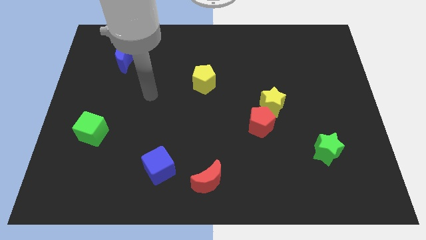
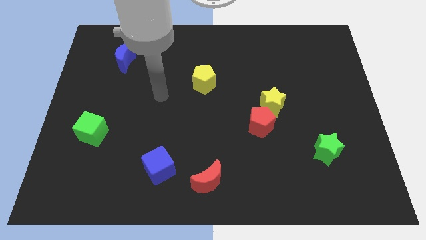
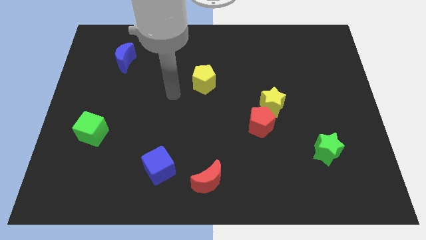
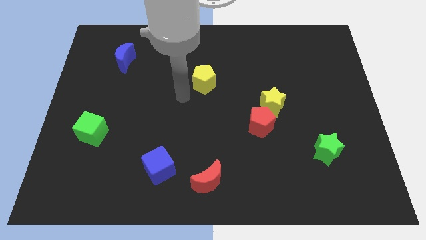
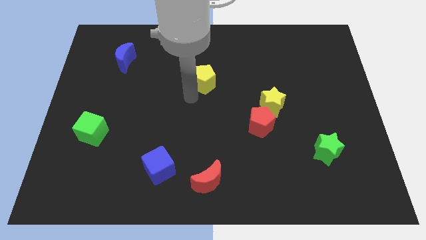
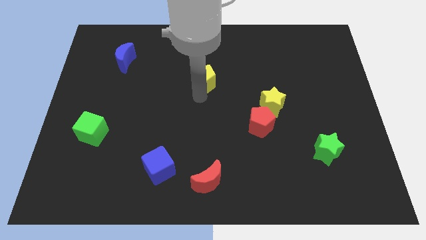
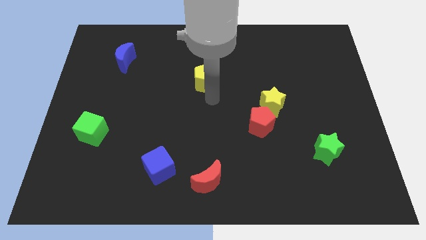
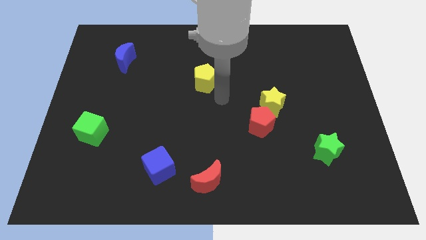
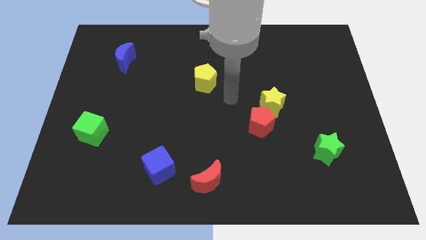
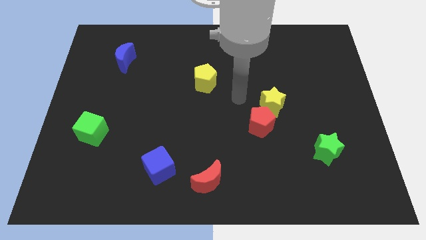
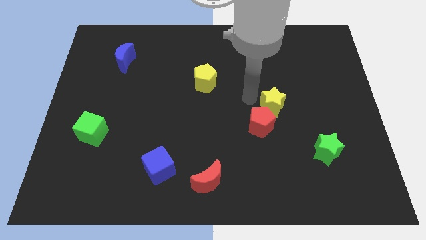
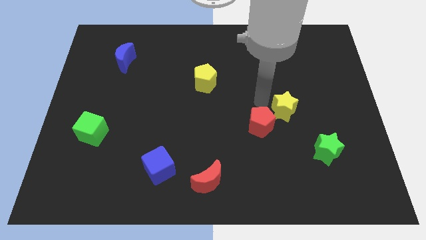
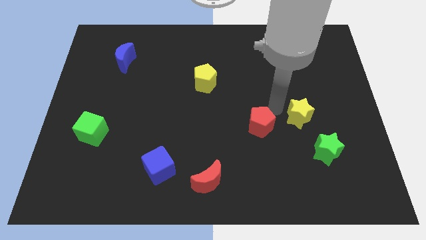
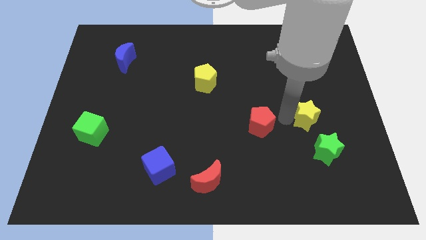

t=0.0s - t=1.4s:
pull the red pentagon apart from the yellow star

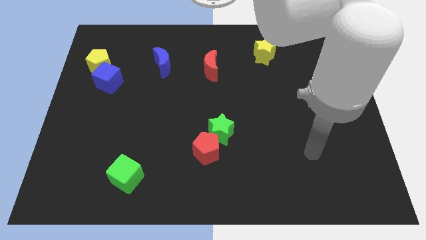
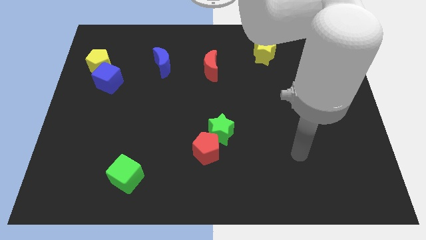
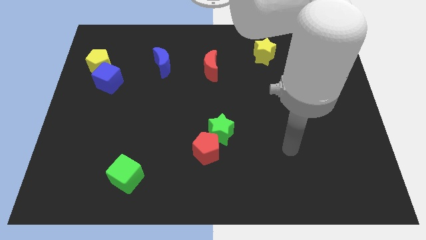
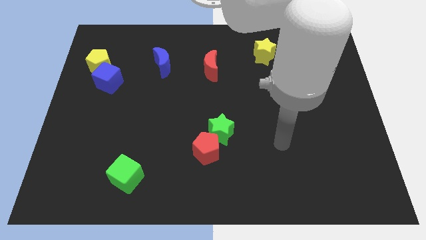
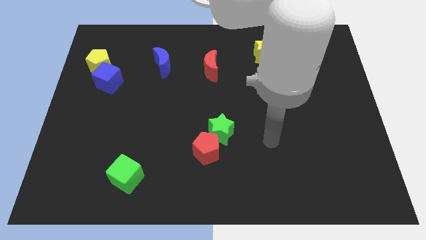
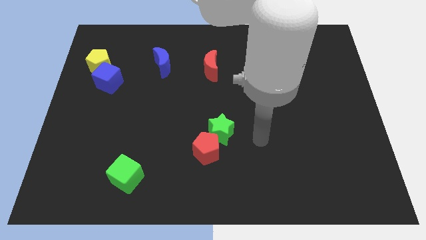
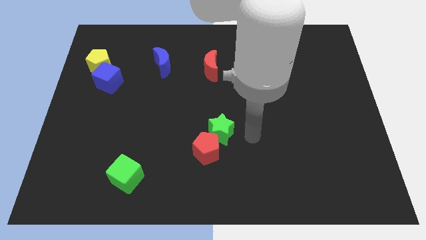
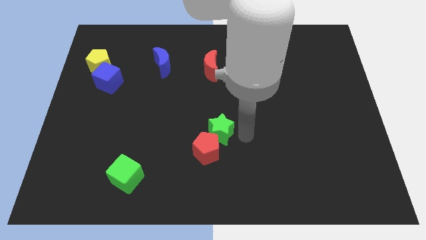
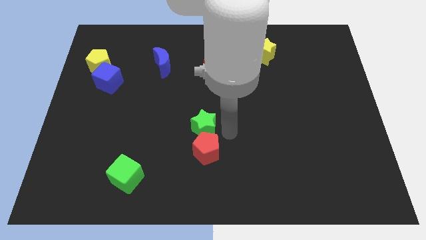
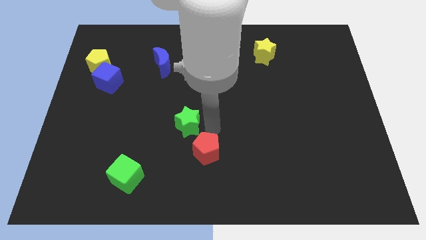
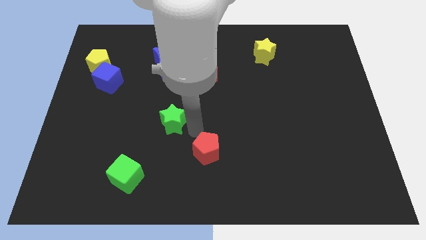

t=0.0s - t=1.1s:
pull the red pentagon apart from the green star

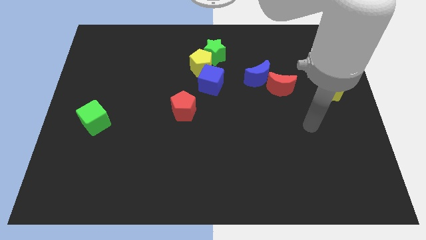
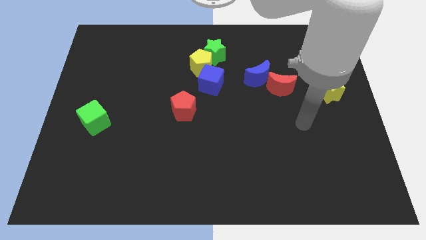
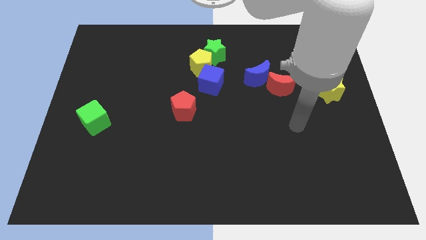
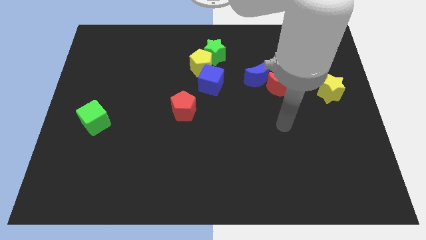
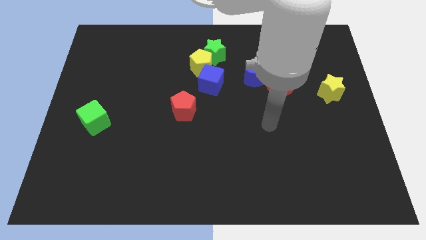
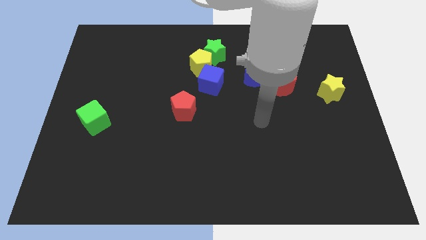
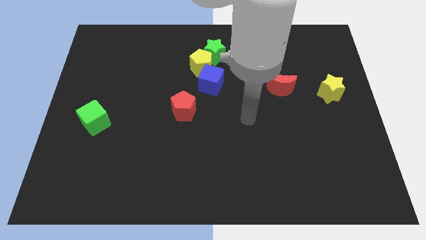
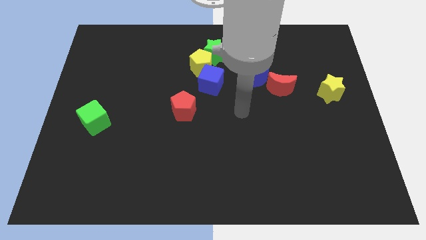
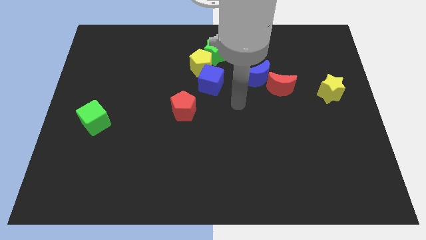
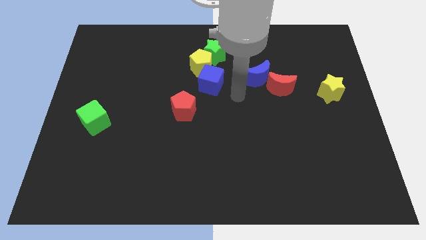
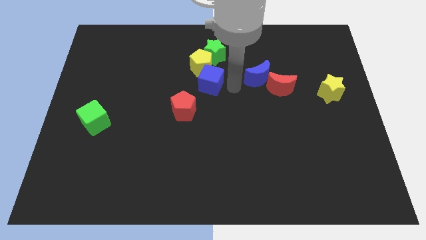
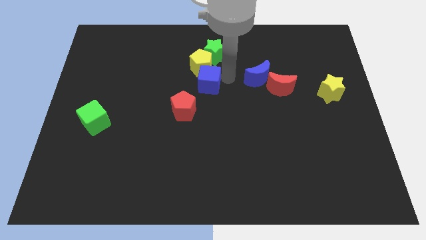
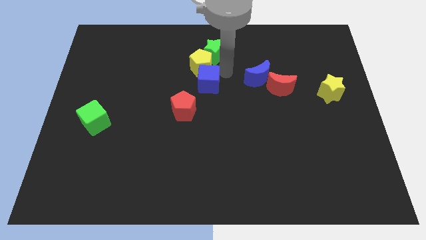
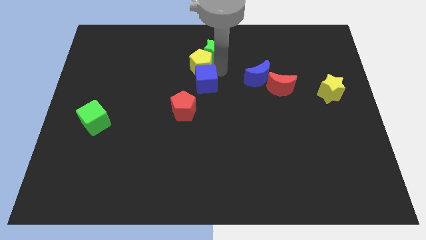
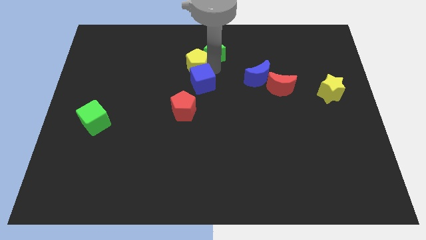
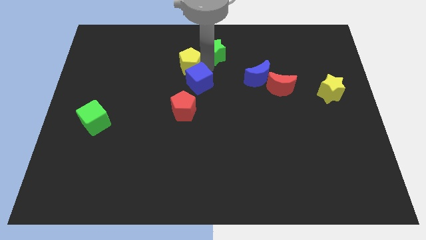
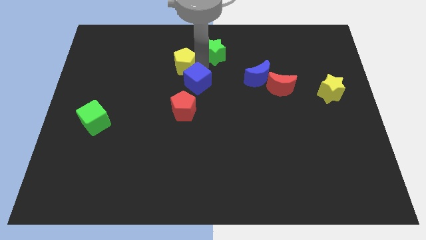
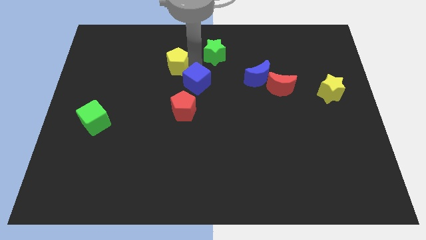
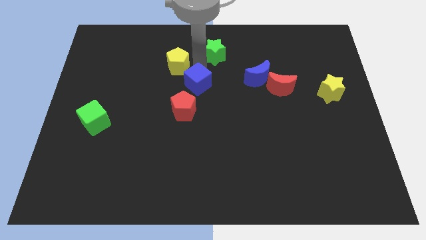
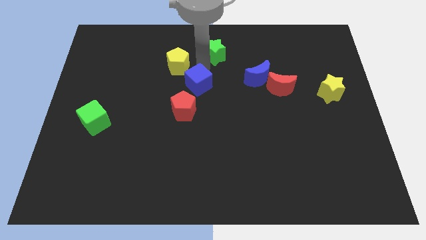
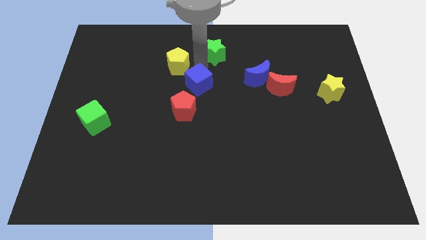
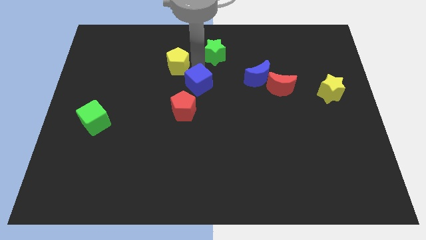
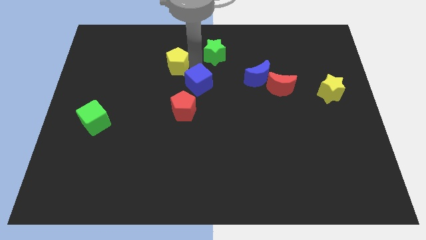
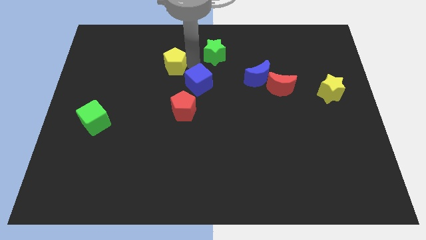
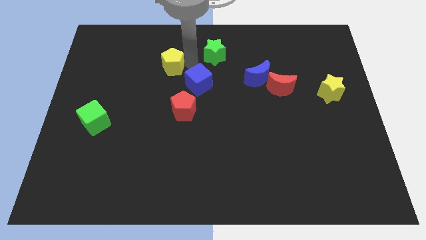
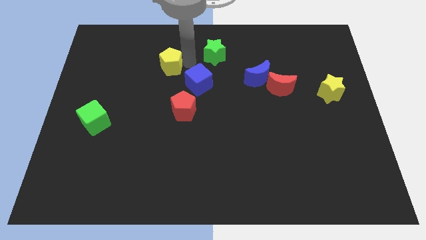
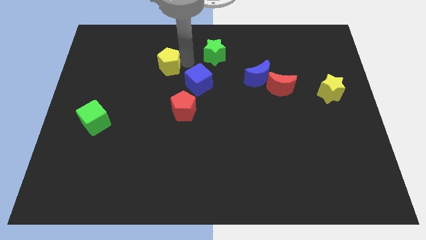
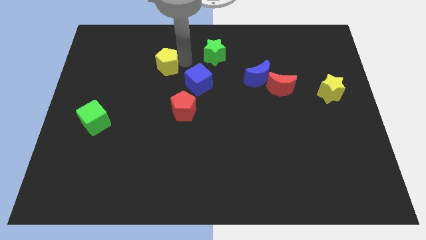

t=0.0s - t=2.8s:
separate the yellow pentagon from the green star and blue cube

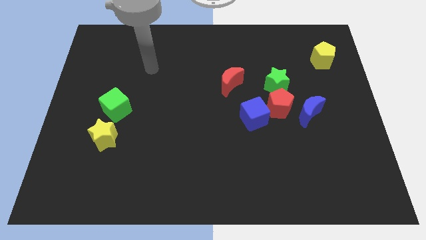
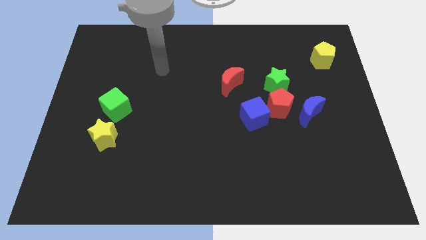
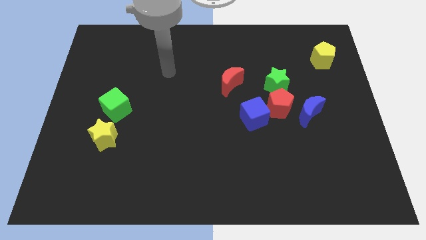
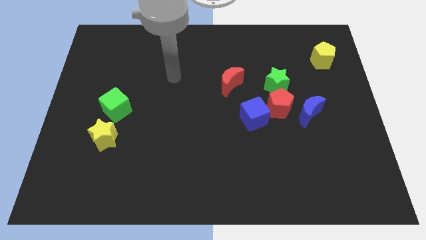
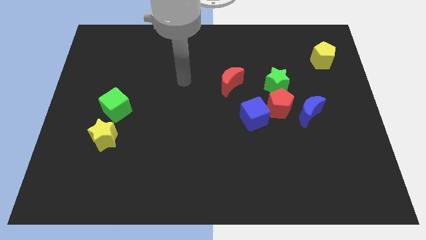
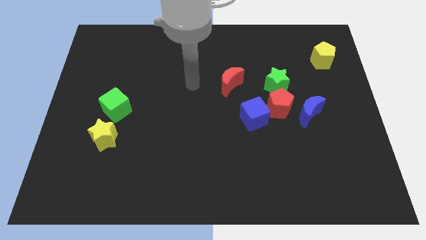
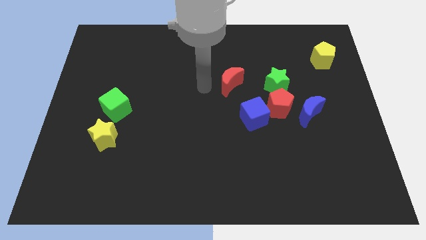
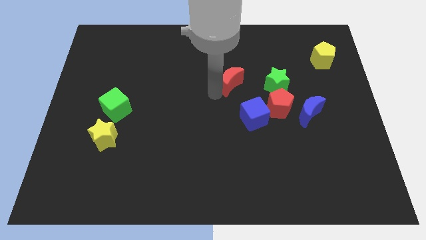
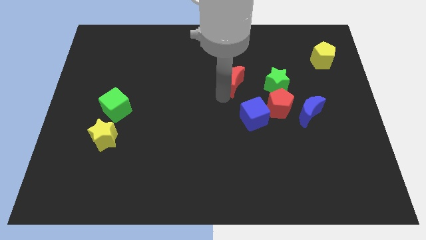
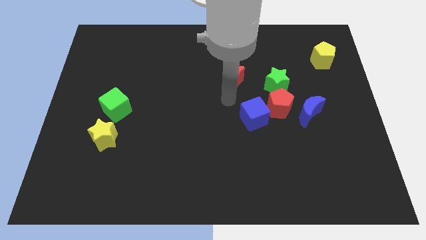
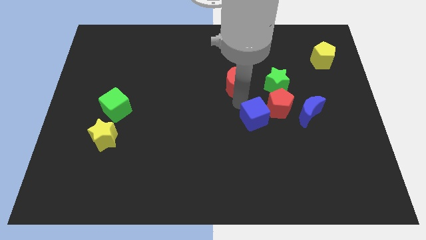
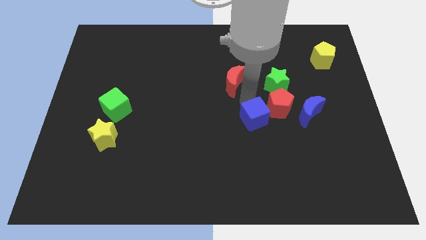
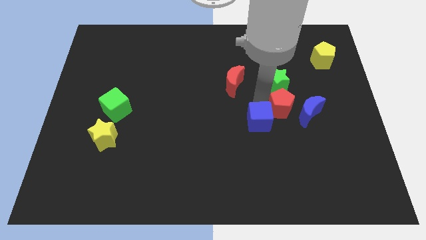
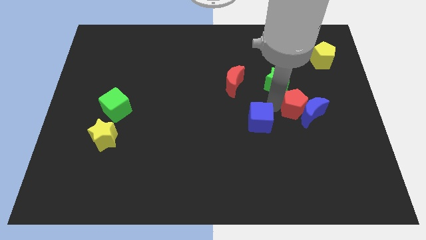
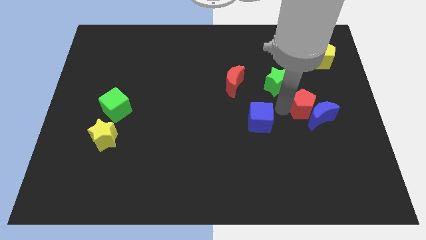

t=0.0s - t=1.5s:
pull the blue cube apart from the red pentagon

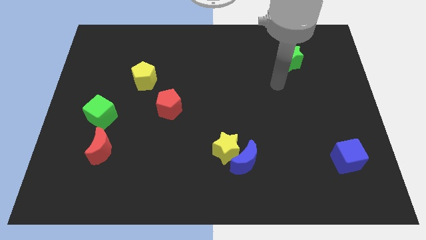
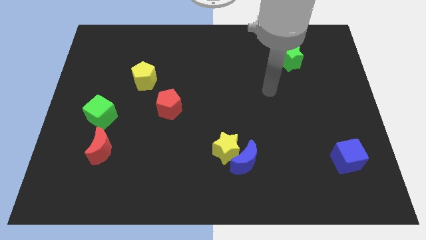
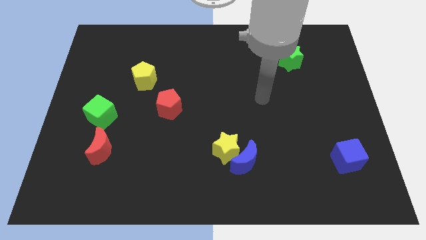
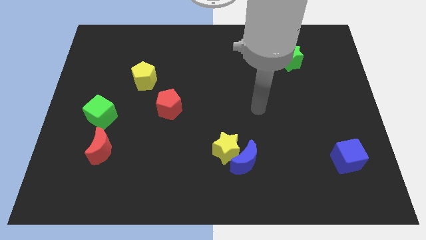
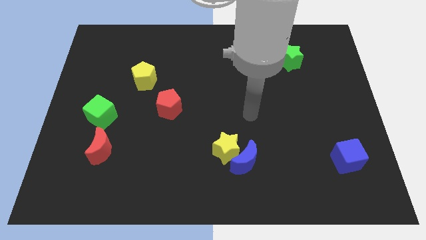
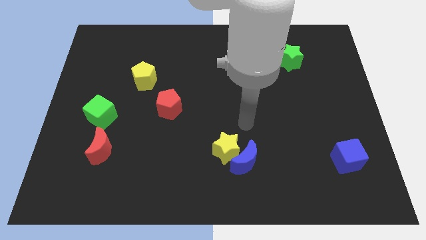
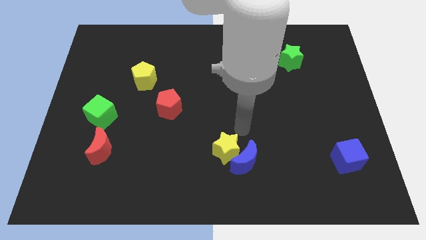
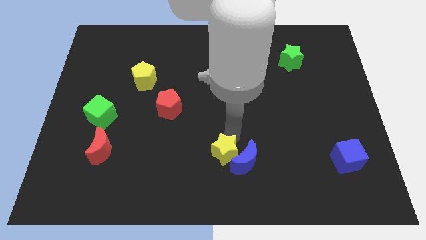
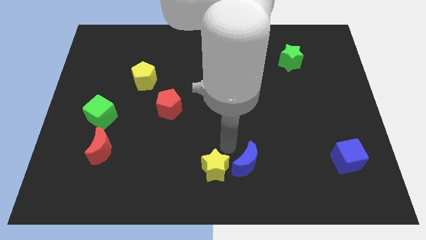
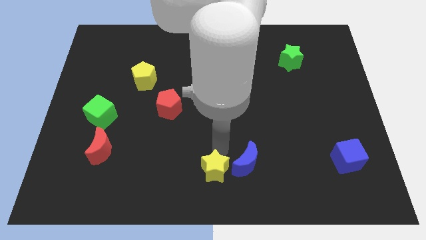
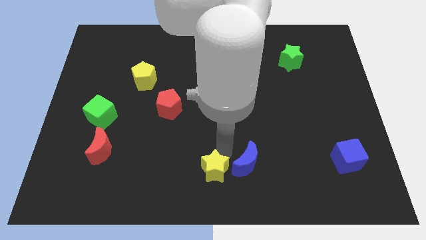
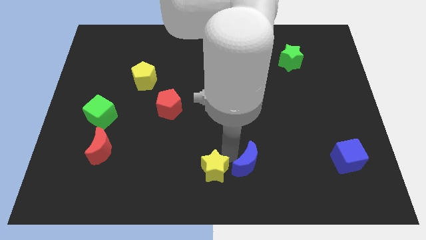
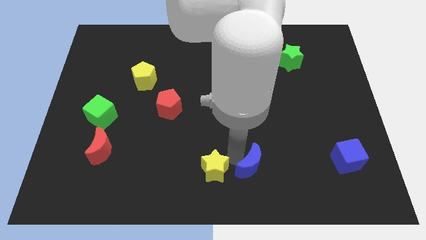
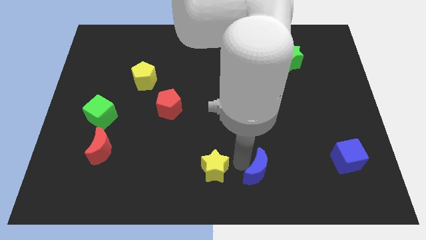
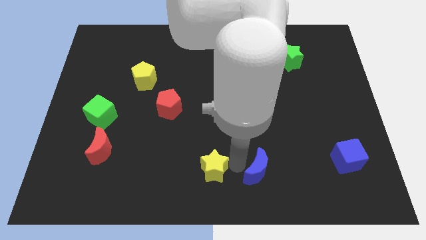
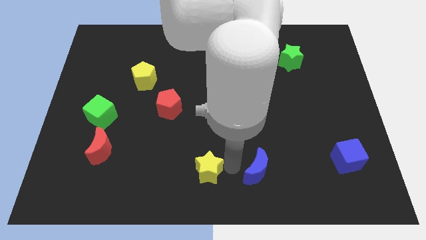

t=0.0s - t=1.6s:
separate the blue moon from the yellow star

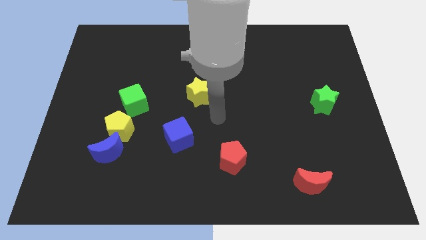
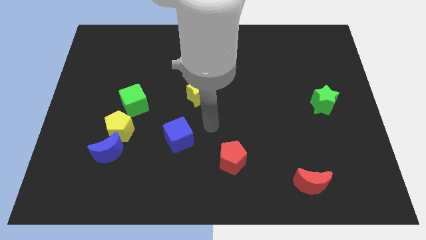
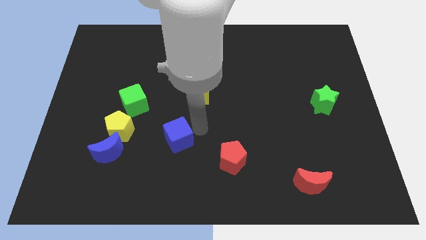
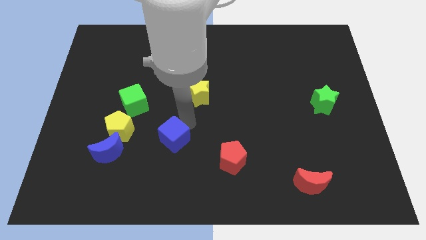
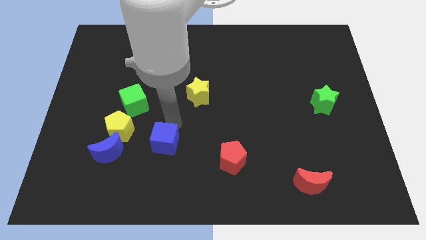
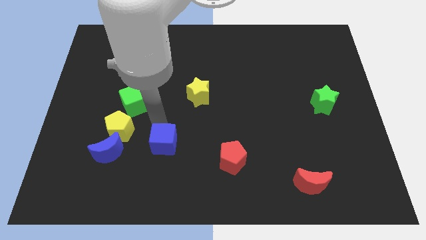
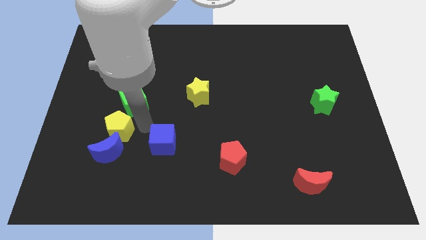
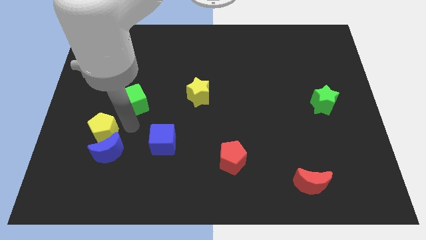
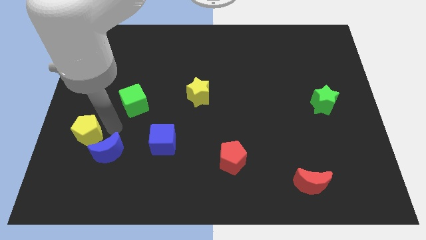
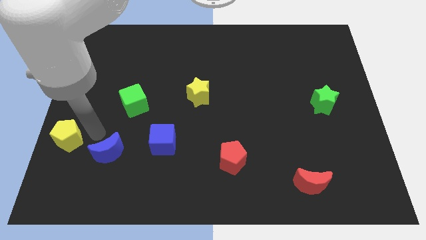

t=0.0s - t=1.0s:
separate the blue moon from the yellow pentagon
